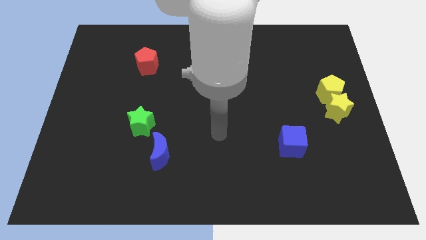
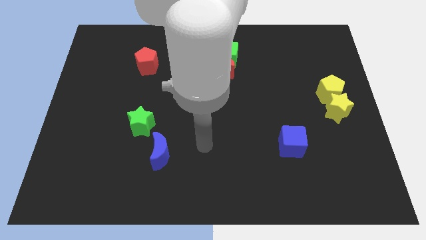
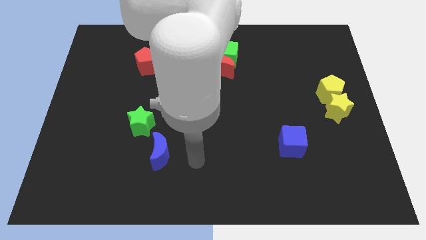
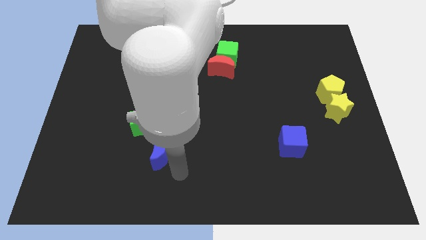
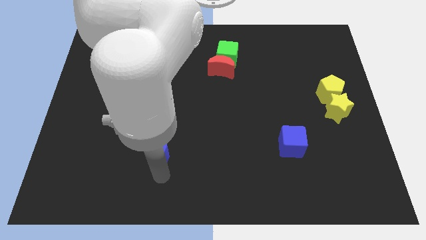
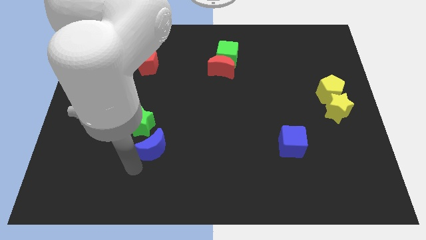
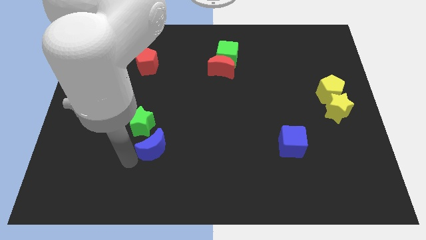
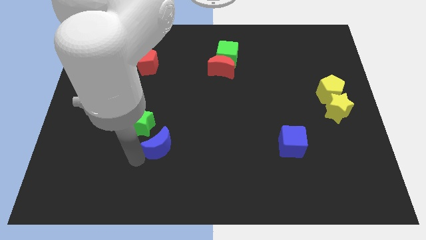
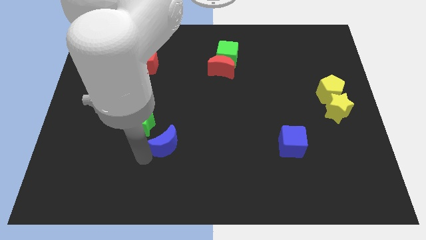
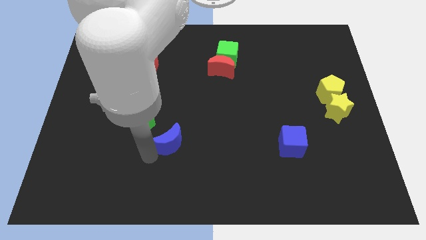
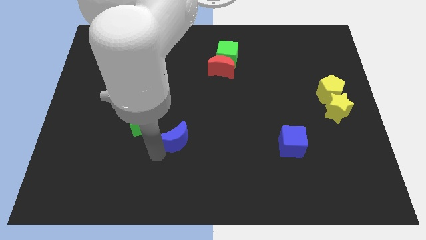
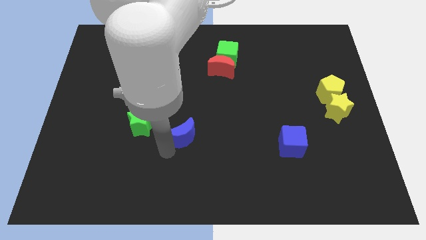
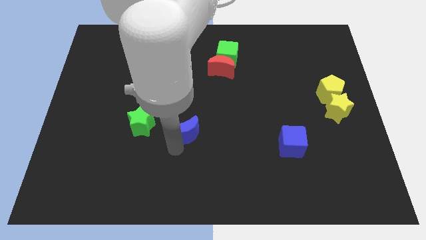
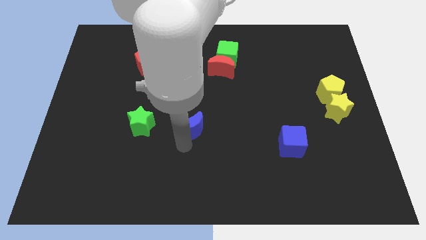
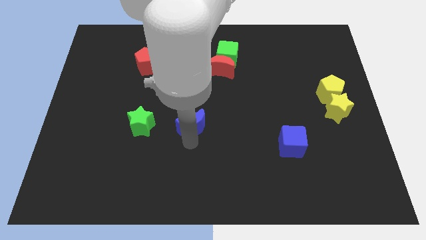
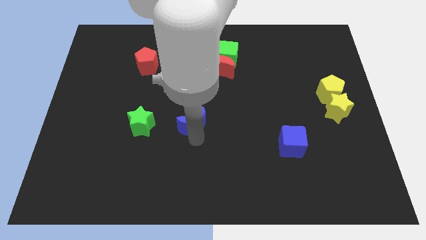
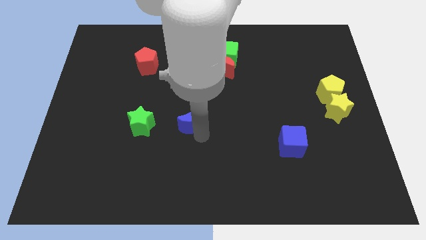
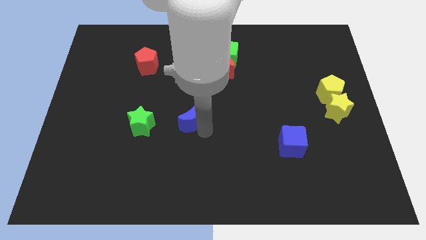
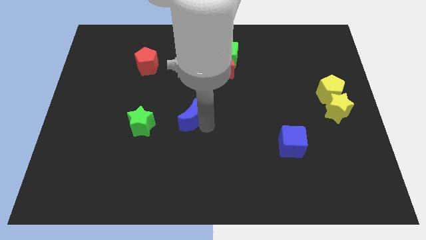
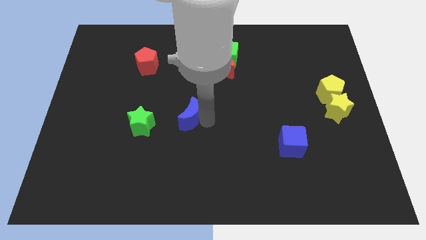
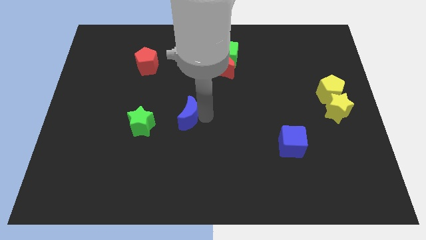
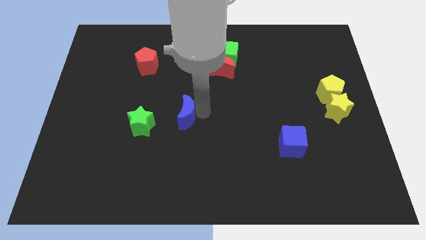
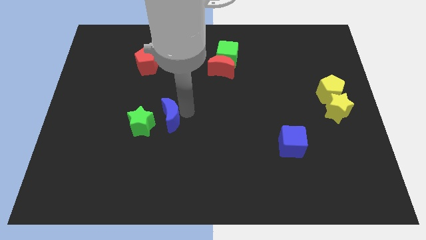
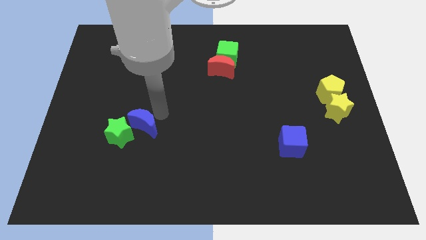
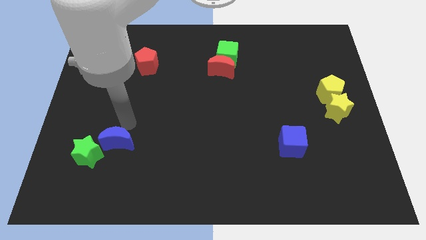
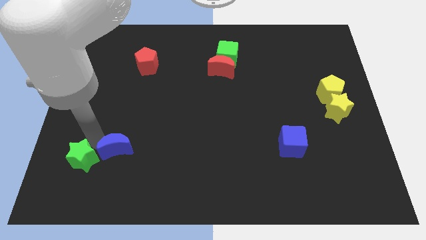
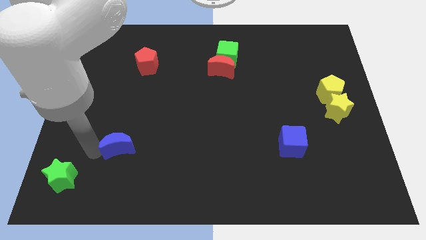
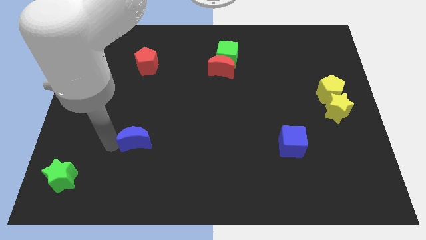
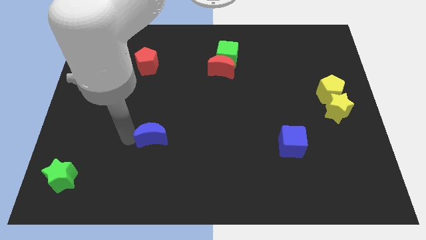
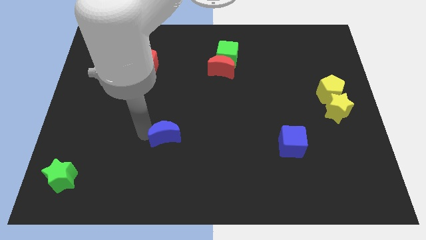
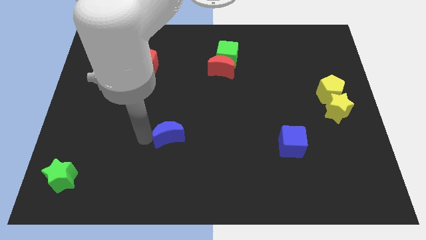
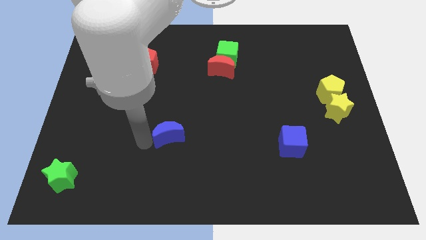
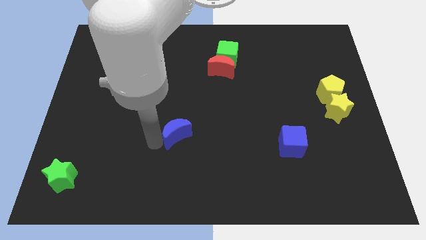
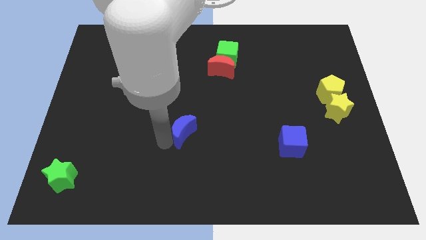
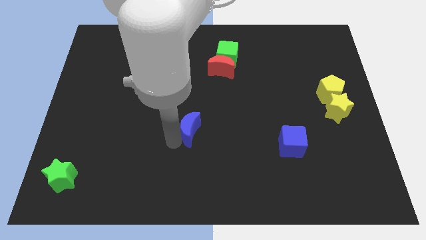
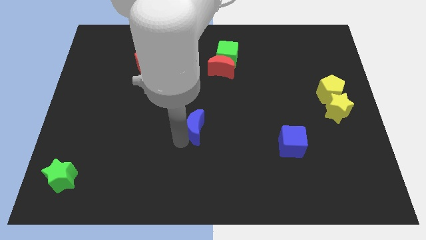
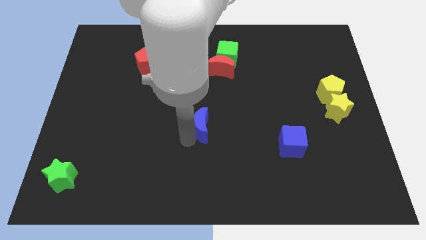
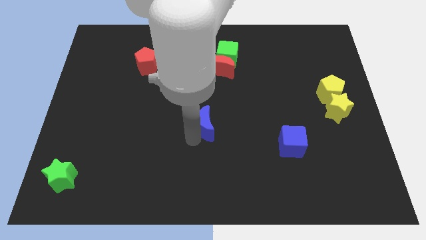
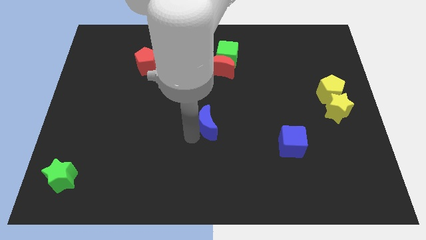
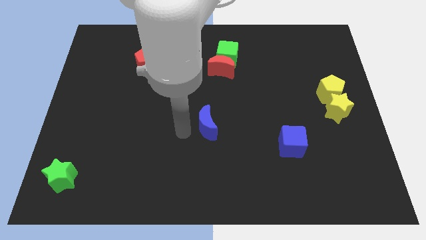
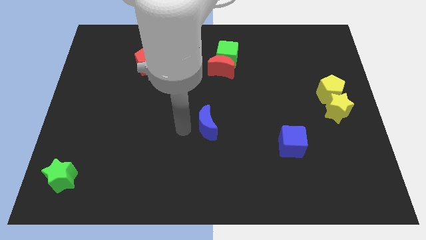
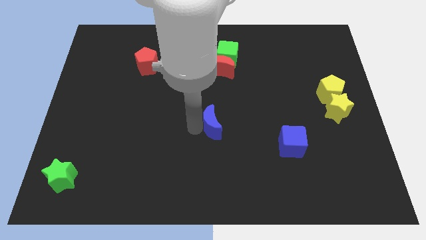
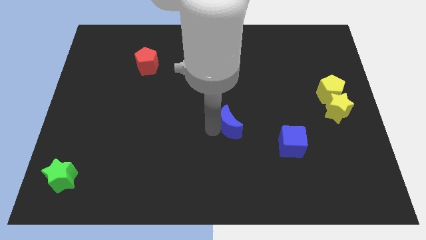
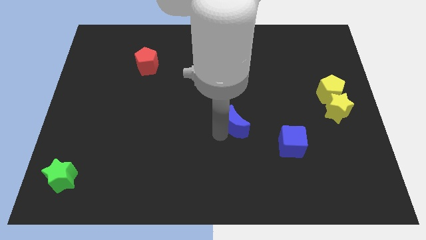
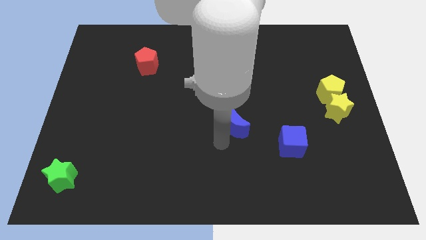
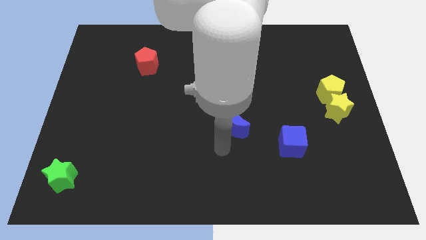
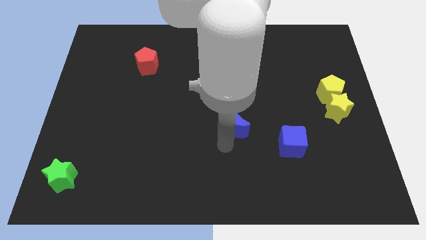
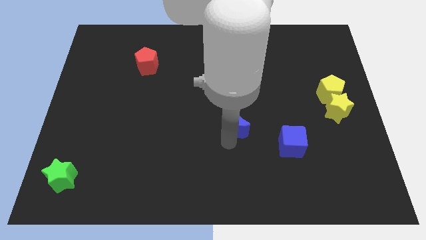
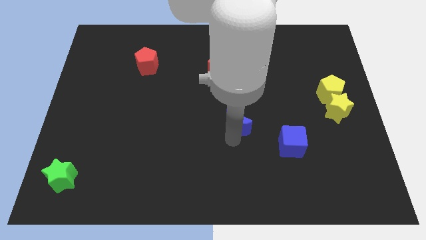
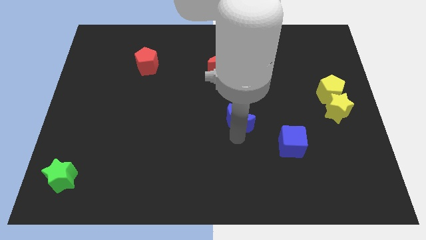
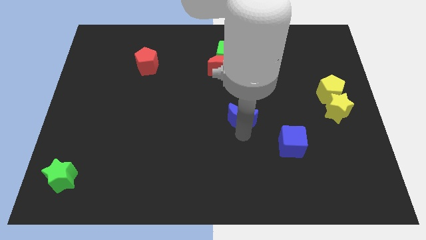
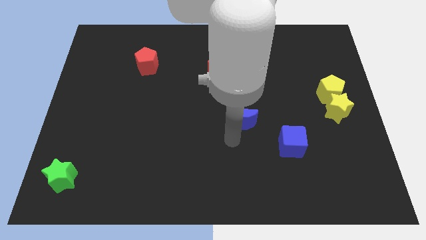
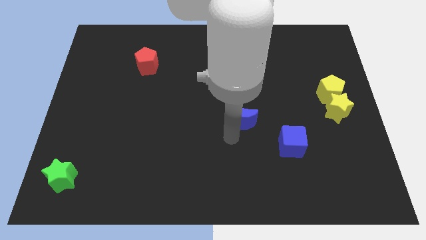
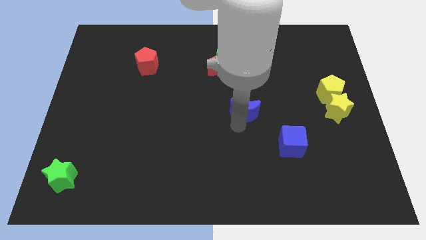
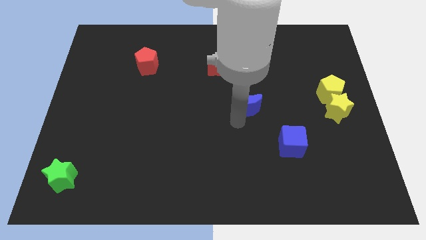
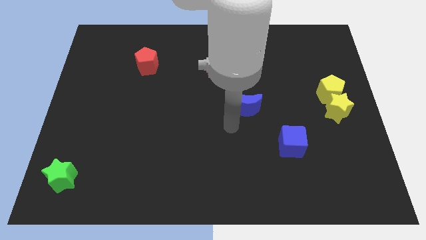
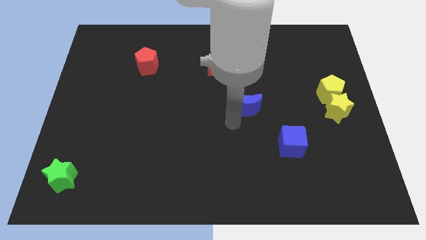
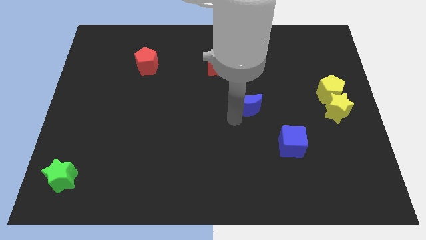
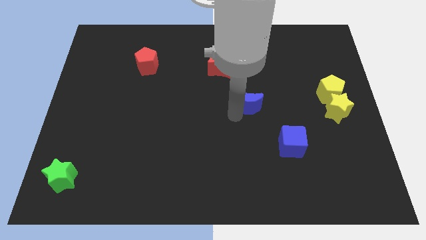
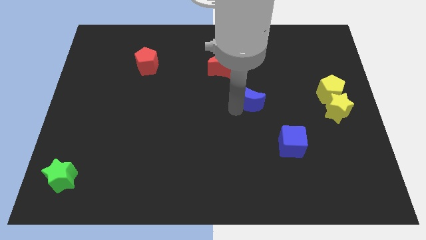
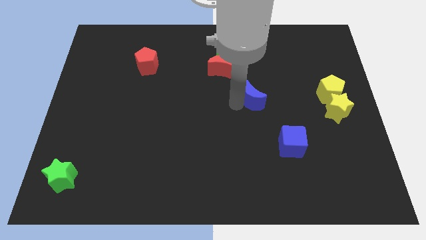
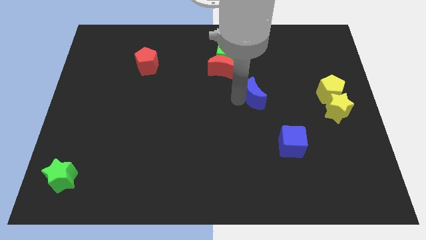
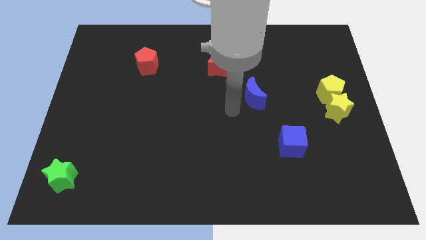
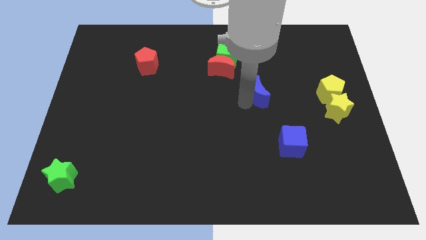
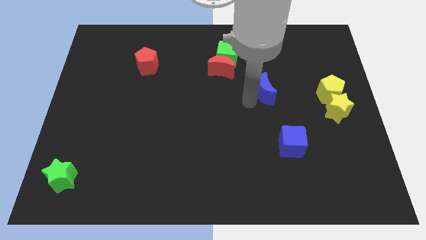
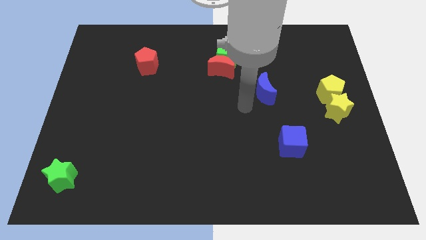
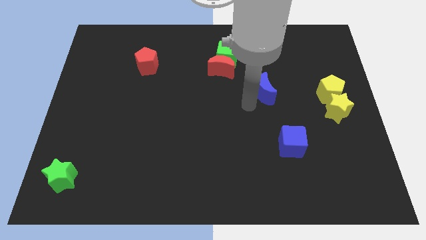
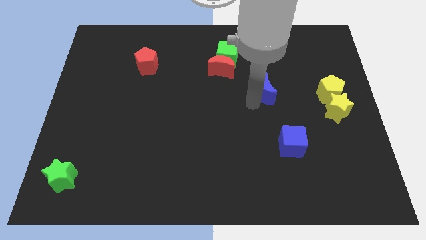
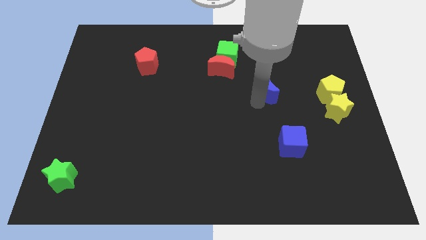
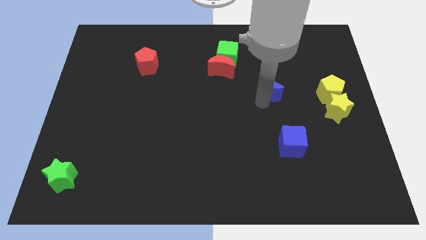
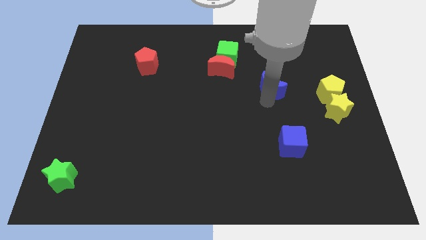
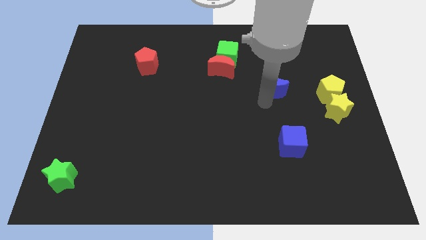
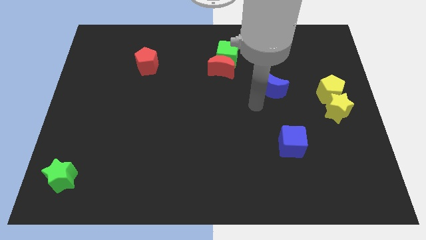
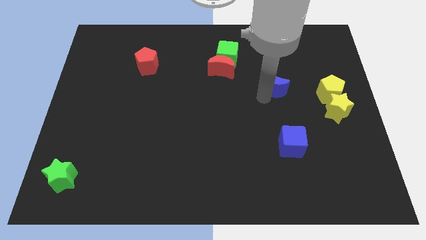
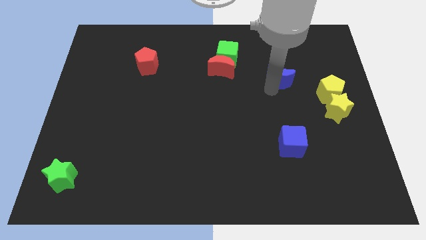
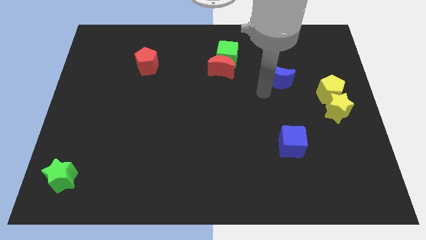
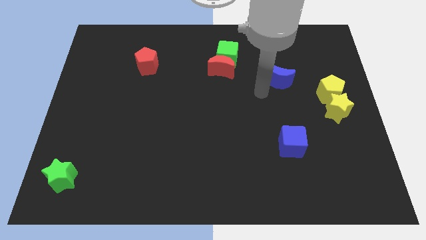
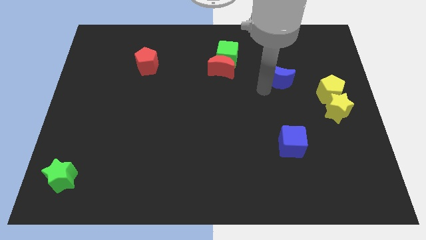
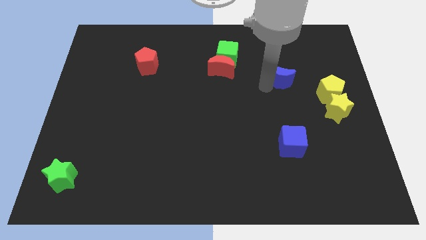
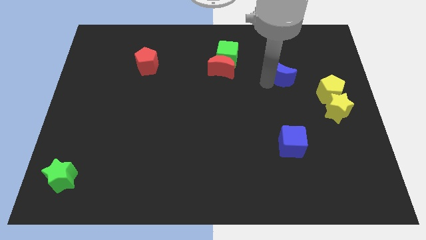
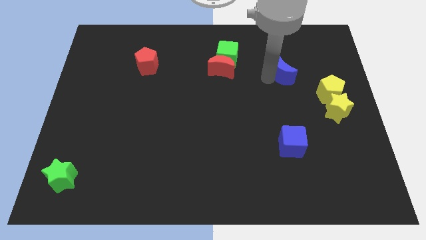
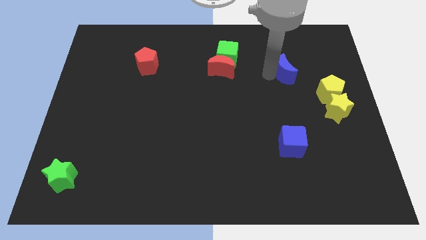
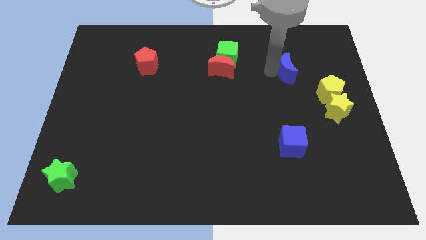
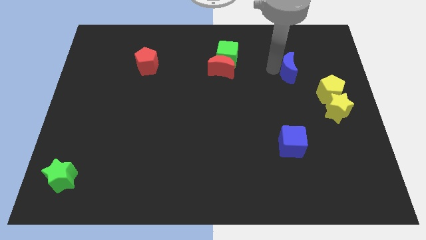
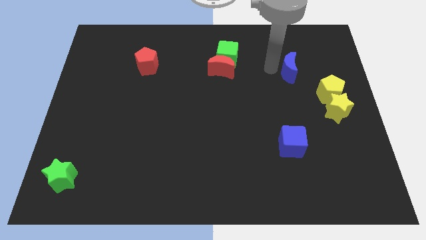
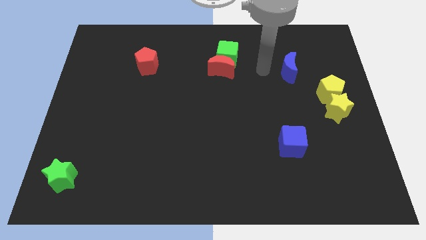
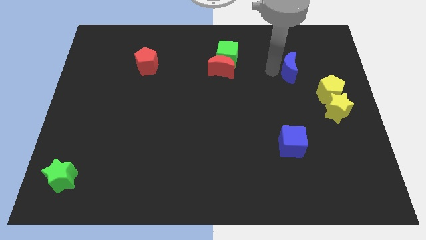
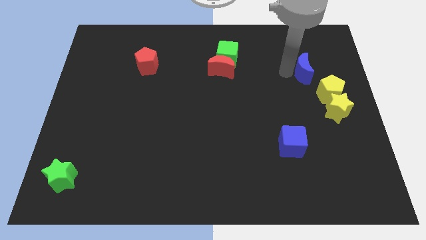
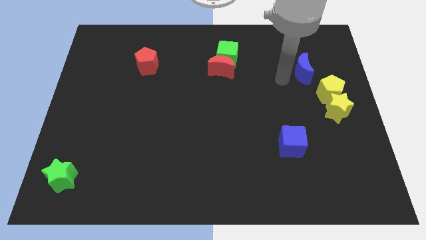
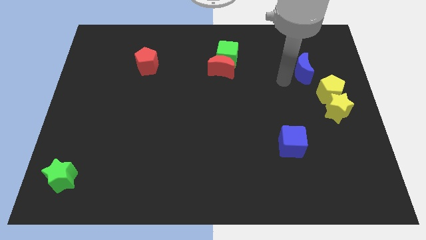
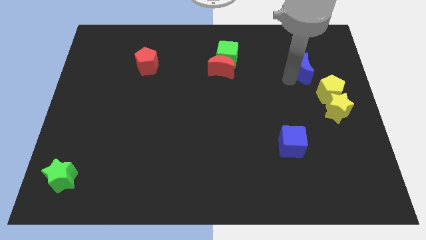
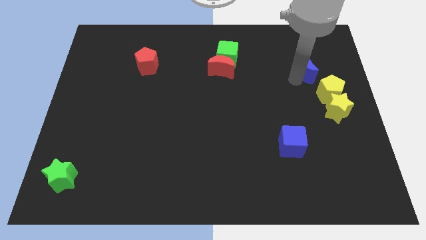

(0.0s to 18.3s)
move the blue moon to the top side of the yellow pentagon
